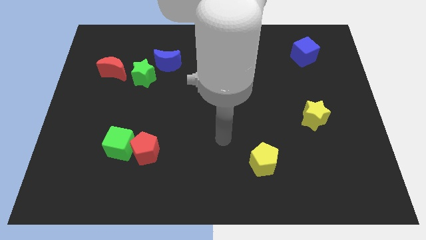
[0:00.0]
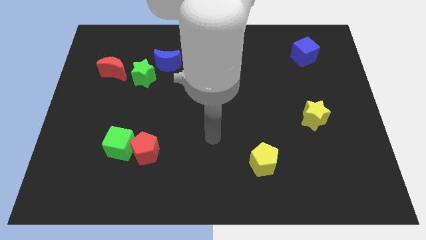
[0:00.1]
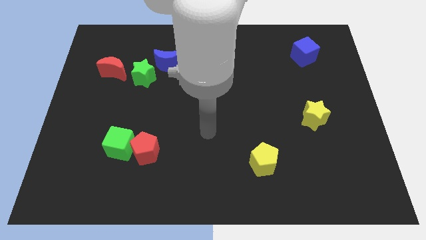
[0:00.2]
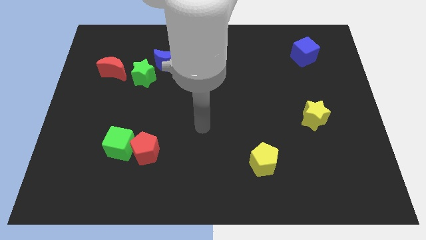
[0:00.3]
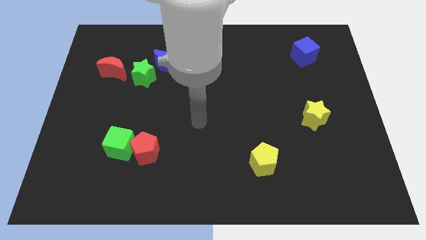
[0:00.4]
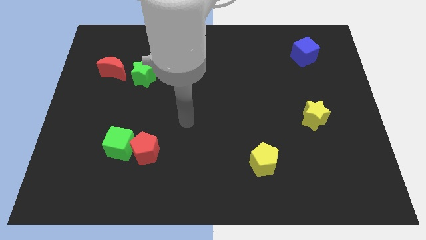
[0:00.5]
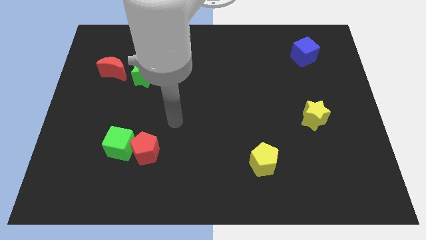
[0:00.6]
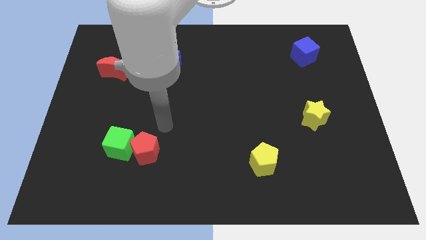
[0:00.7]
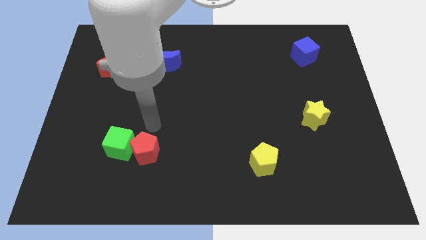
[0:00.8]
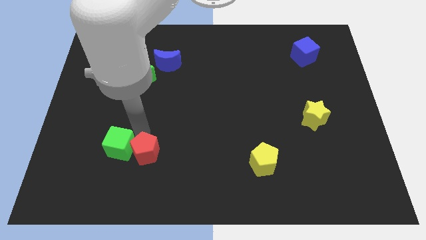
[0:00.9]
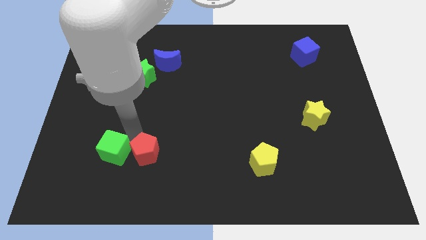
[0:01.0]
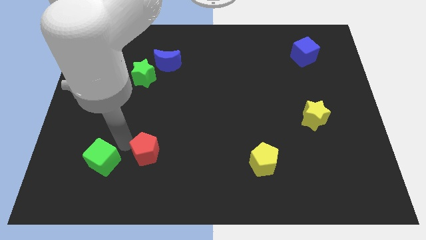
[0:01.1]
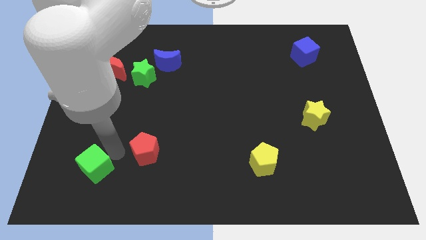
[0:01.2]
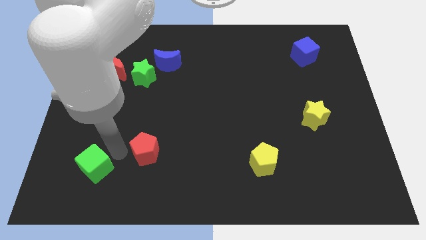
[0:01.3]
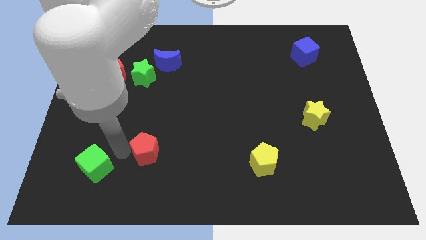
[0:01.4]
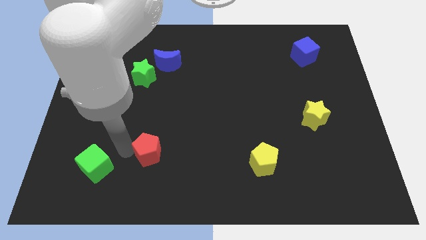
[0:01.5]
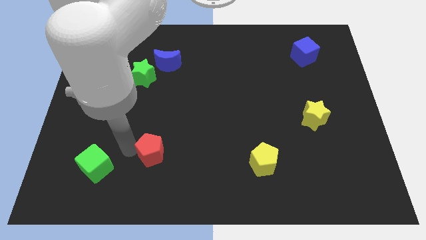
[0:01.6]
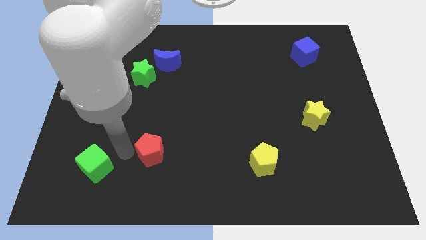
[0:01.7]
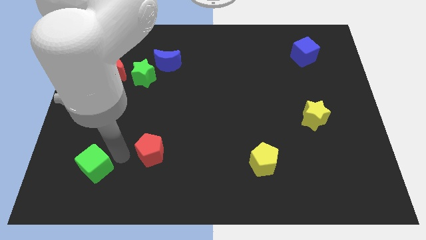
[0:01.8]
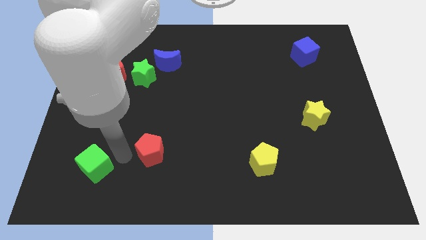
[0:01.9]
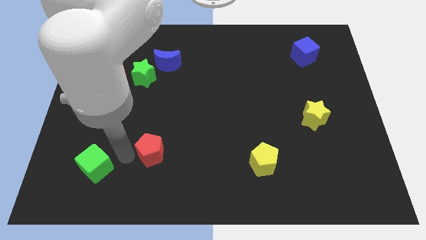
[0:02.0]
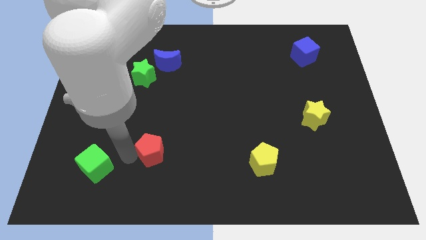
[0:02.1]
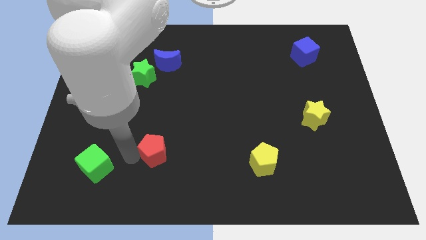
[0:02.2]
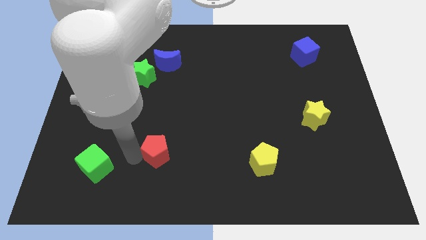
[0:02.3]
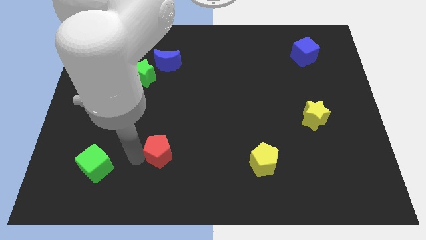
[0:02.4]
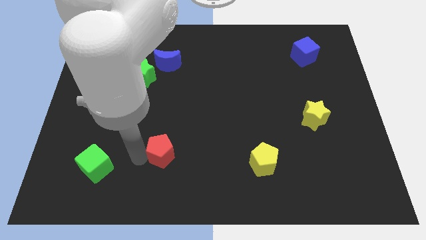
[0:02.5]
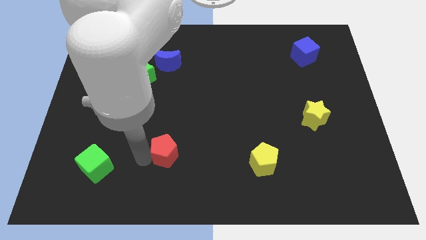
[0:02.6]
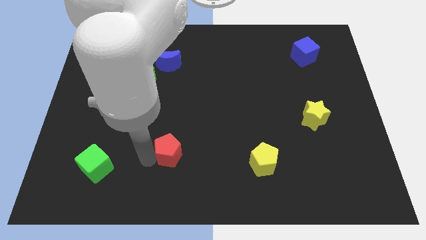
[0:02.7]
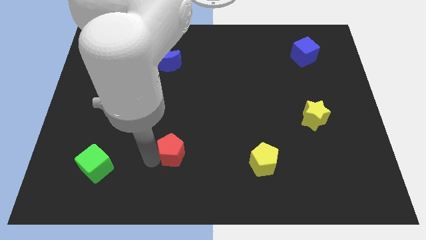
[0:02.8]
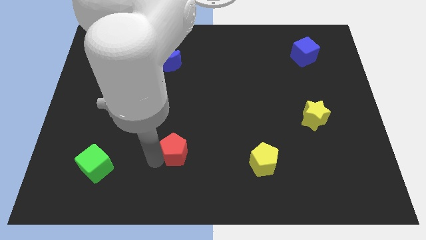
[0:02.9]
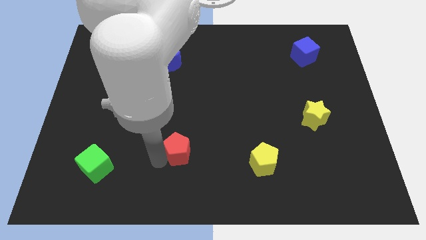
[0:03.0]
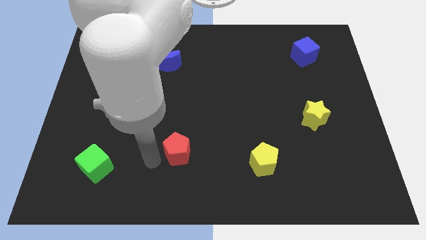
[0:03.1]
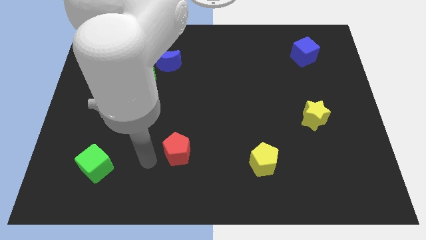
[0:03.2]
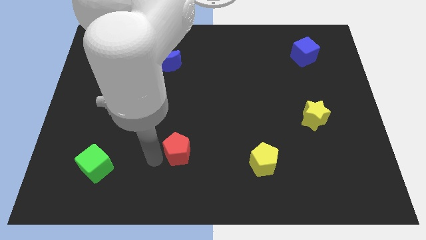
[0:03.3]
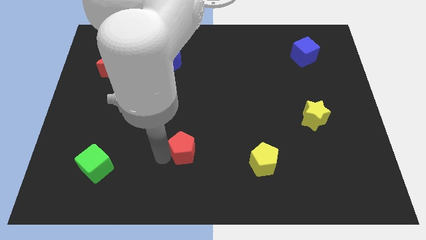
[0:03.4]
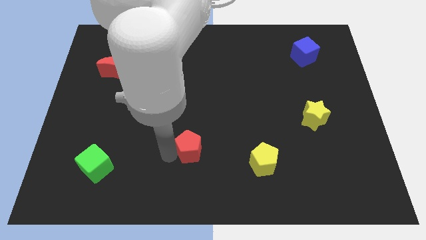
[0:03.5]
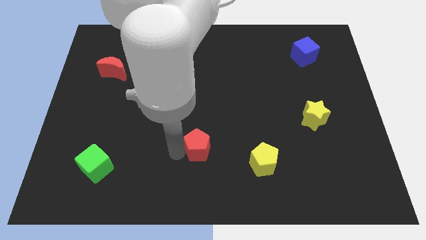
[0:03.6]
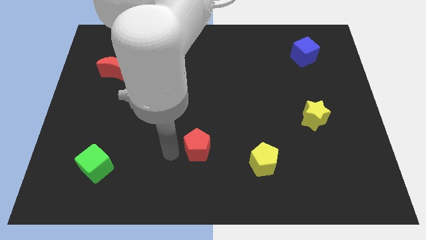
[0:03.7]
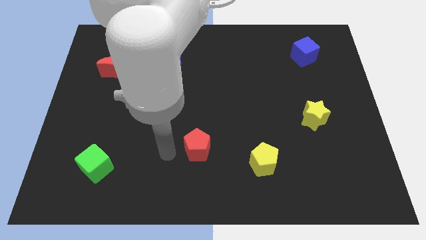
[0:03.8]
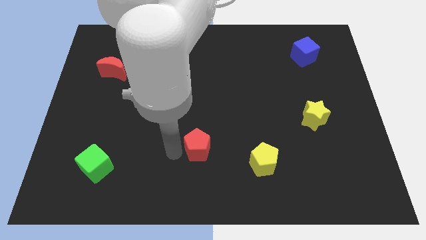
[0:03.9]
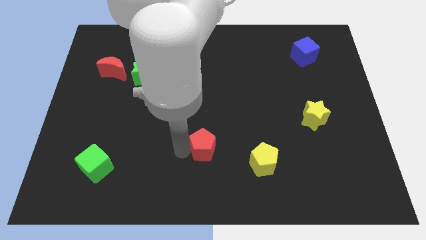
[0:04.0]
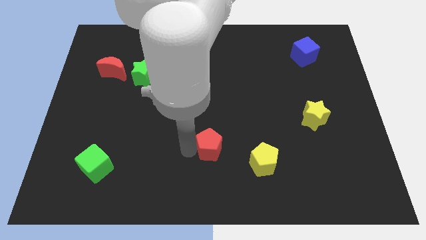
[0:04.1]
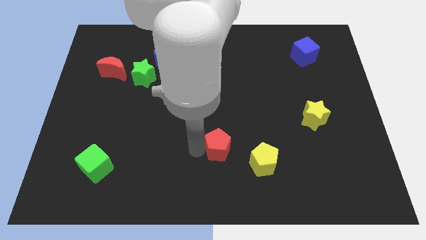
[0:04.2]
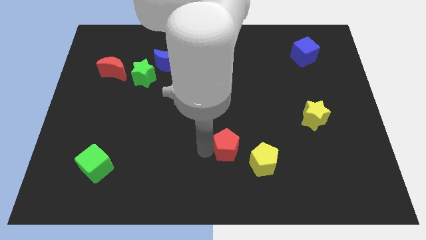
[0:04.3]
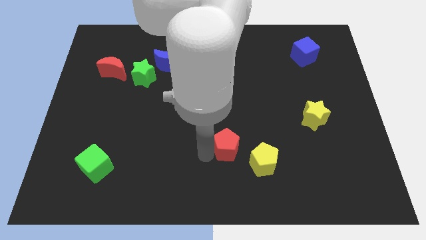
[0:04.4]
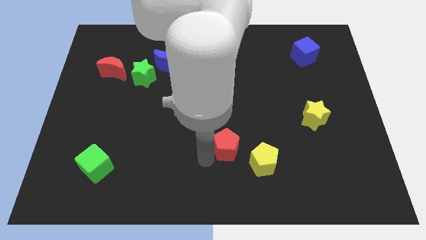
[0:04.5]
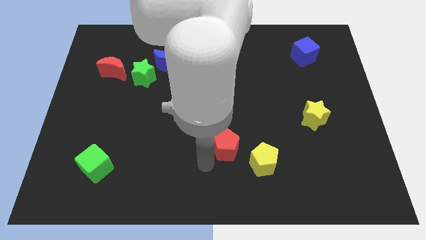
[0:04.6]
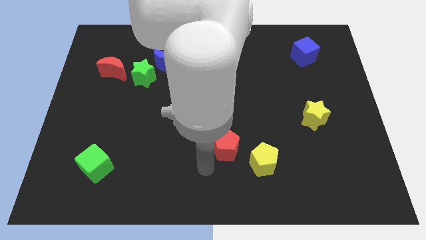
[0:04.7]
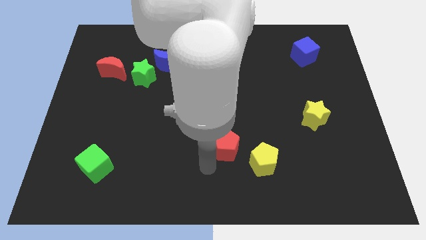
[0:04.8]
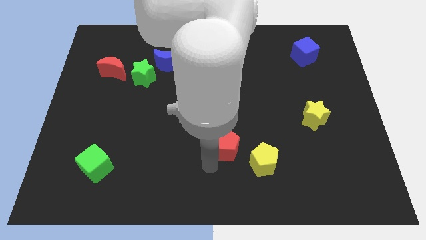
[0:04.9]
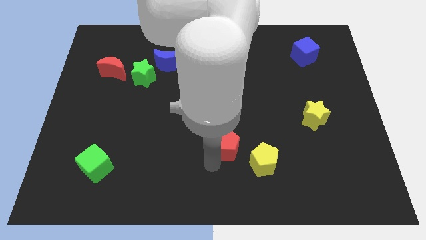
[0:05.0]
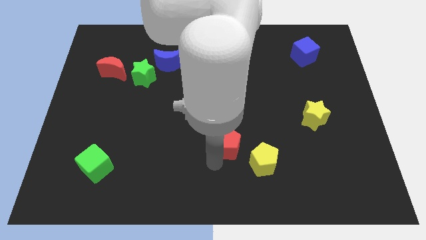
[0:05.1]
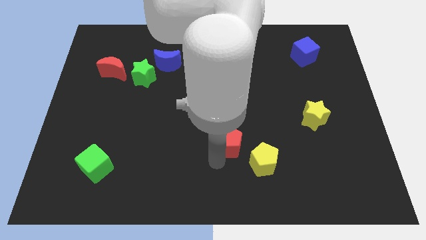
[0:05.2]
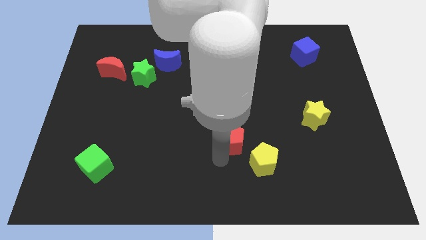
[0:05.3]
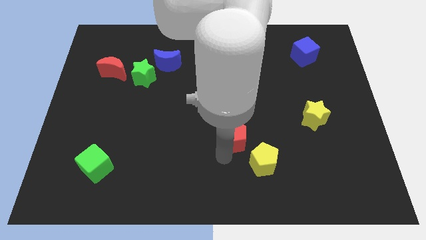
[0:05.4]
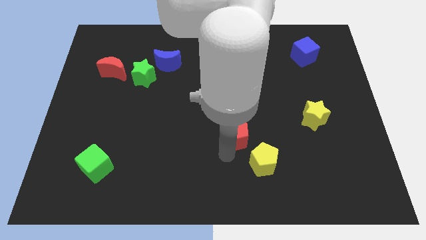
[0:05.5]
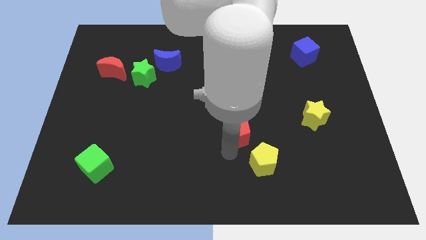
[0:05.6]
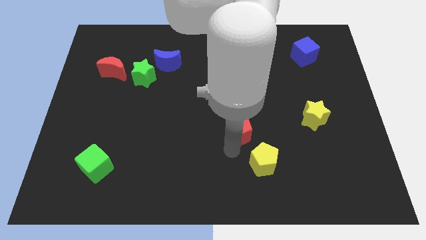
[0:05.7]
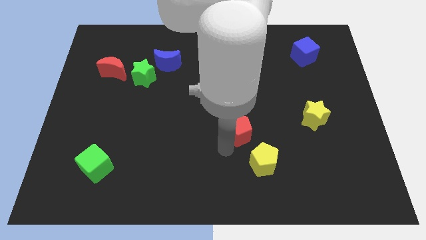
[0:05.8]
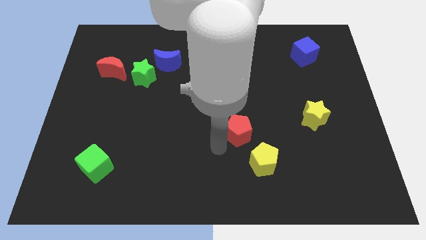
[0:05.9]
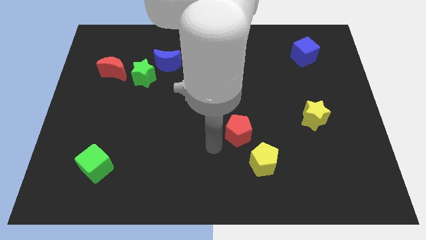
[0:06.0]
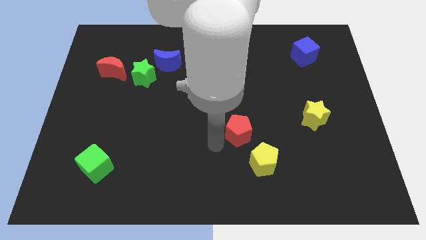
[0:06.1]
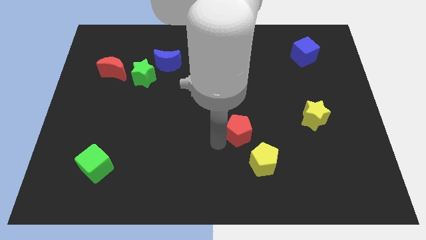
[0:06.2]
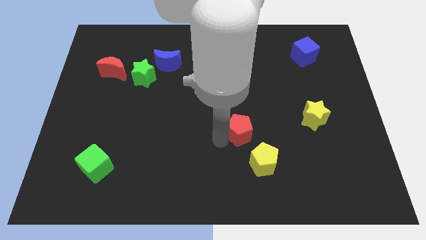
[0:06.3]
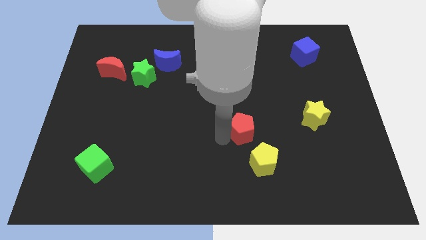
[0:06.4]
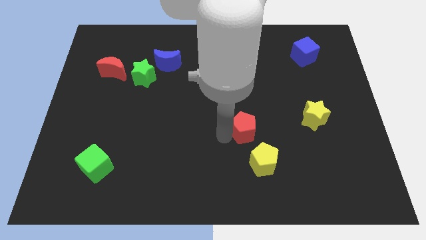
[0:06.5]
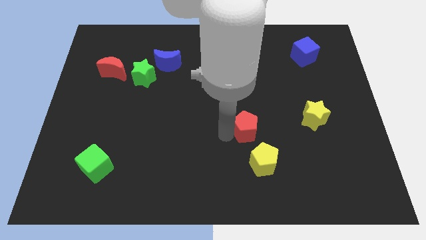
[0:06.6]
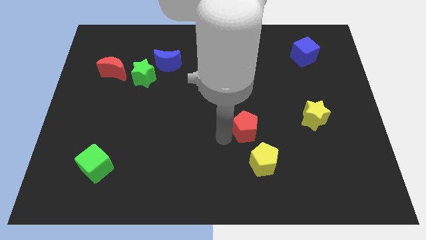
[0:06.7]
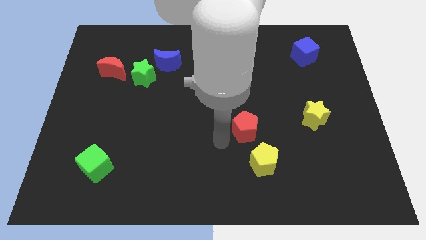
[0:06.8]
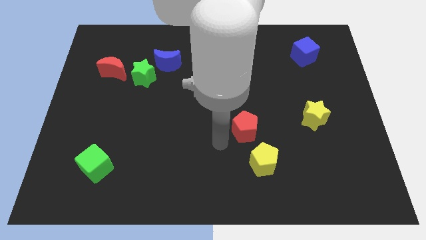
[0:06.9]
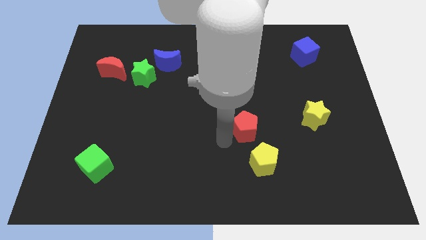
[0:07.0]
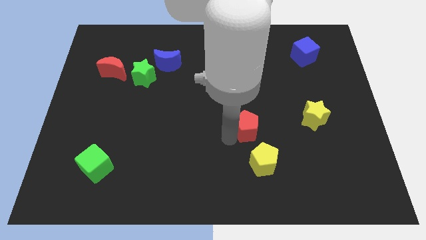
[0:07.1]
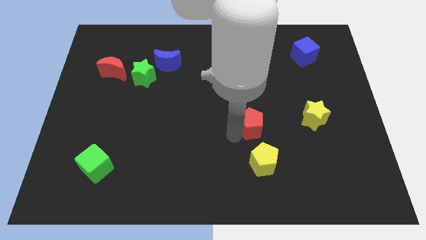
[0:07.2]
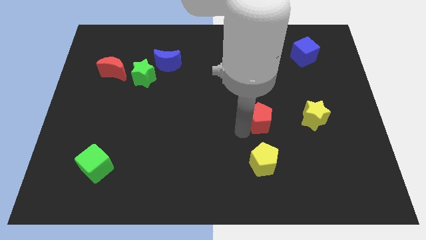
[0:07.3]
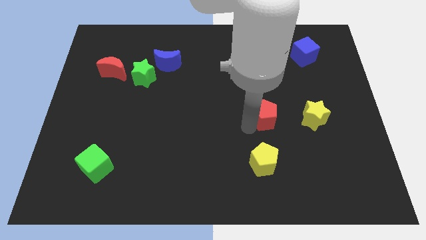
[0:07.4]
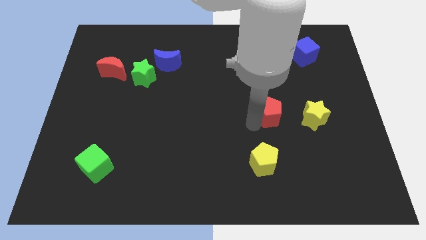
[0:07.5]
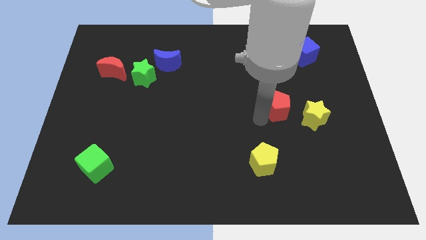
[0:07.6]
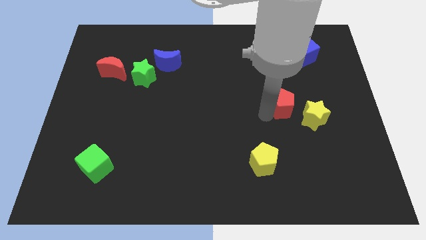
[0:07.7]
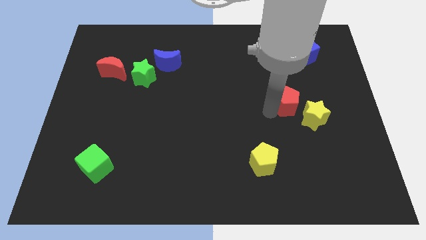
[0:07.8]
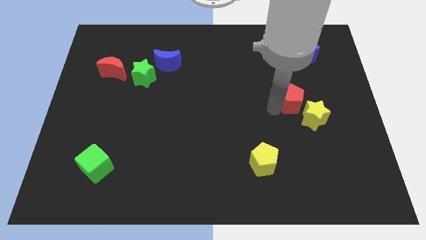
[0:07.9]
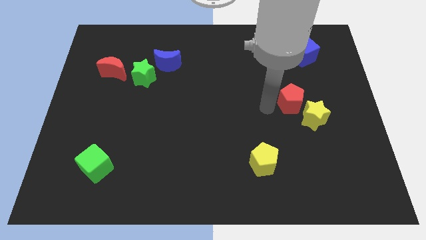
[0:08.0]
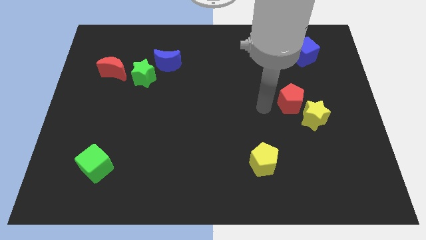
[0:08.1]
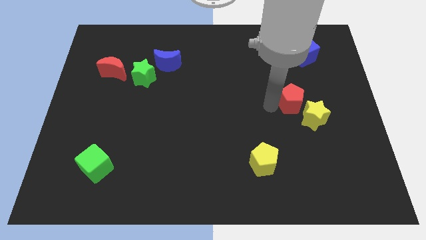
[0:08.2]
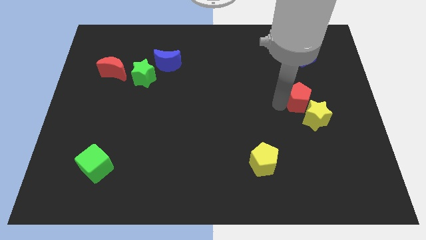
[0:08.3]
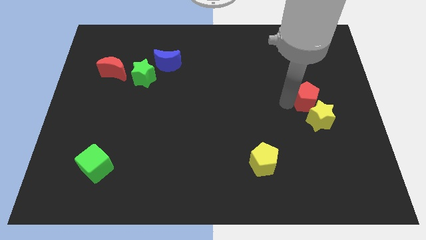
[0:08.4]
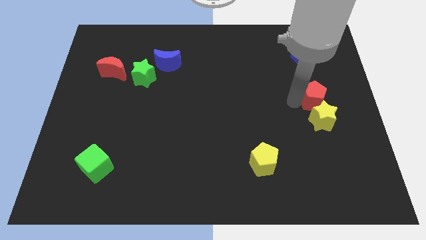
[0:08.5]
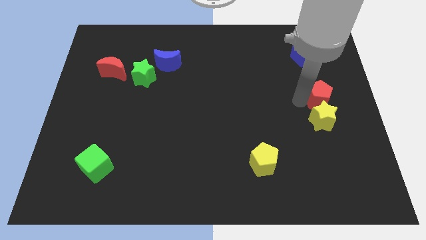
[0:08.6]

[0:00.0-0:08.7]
move the red pentagon to the center right
